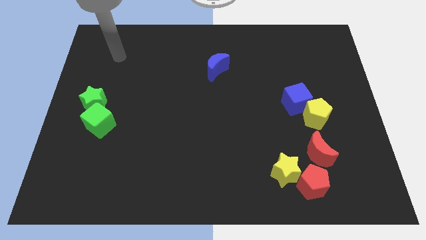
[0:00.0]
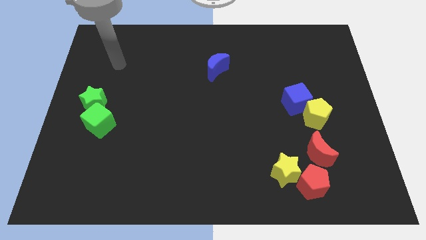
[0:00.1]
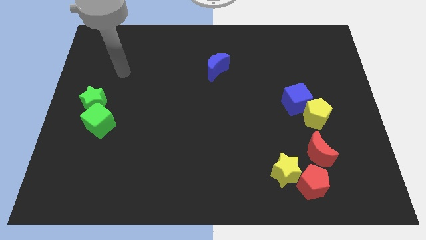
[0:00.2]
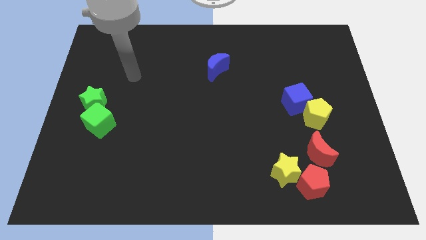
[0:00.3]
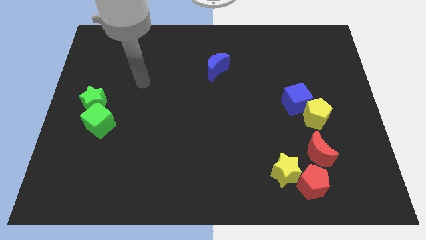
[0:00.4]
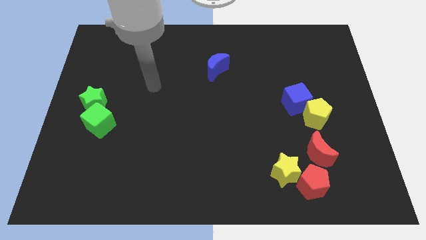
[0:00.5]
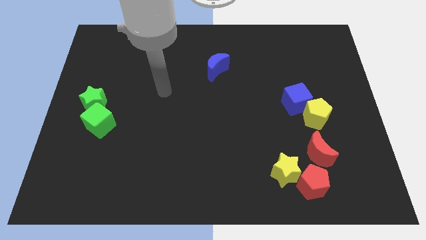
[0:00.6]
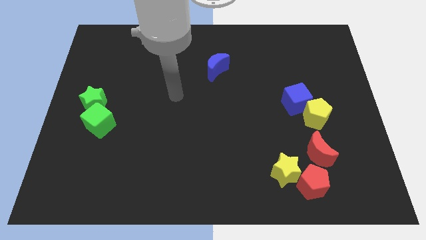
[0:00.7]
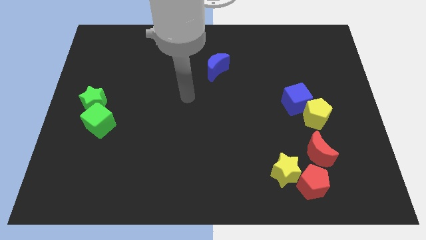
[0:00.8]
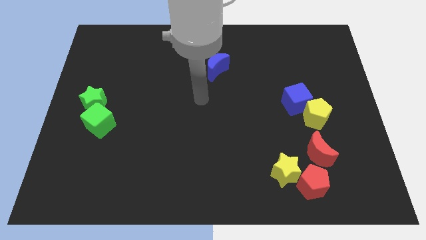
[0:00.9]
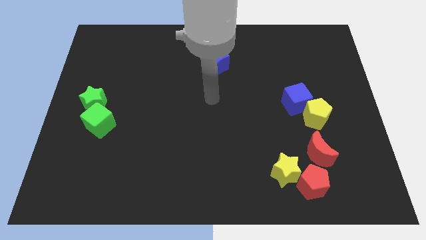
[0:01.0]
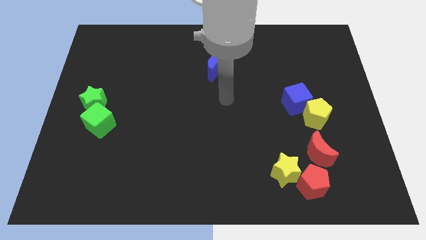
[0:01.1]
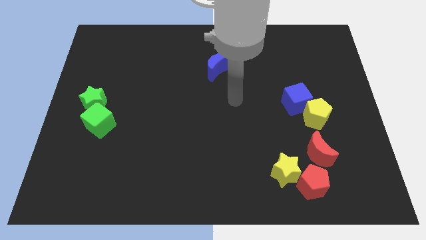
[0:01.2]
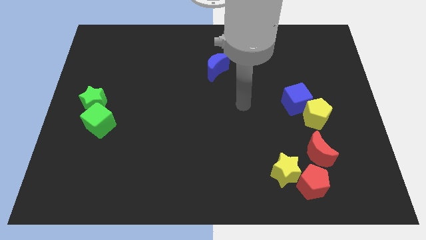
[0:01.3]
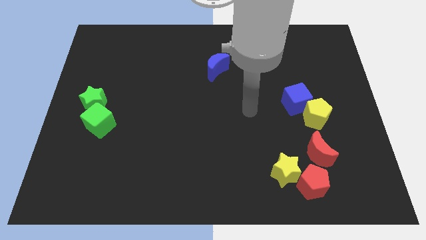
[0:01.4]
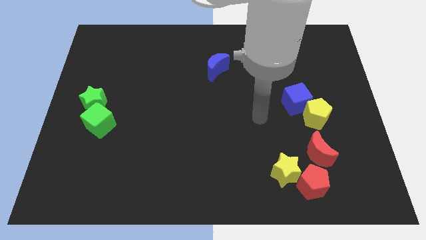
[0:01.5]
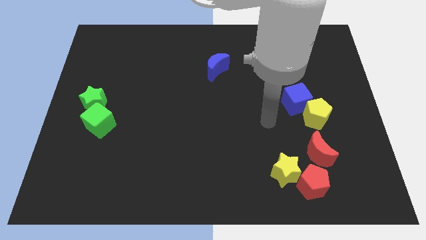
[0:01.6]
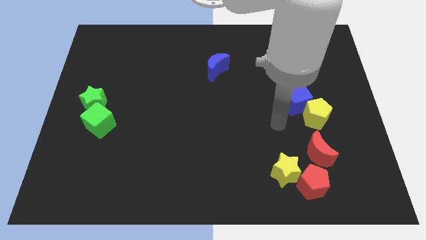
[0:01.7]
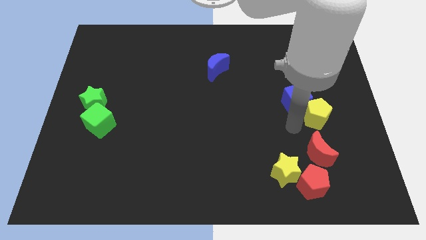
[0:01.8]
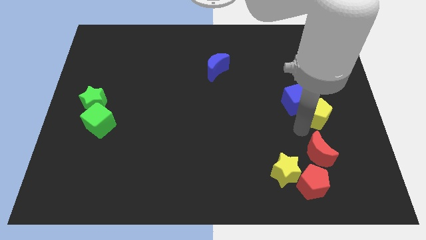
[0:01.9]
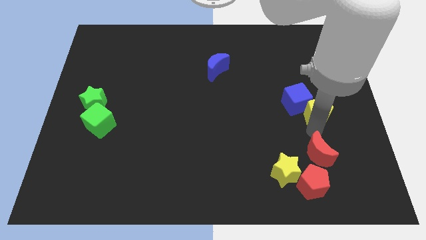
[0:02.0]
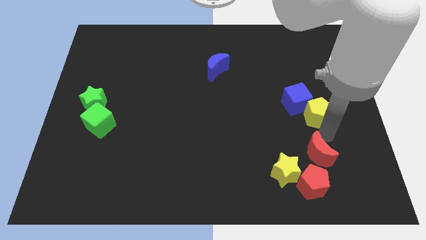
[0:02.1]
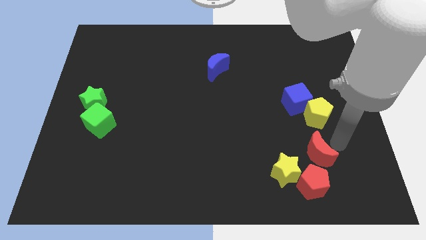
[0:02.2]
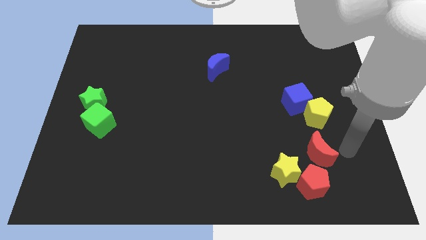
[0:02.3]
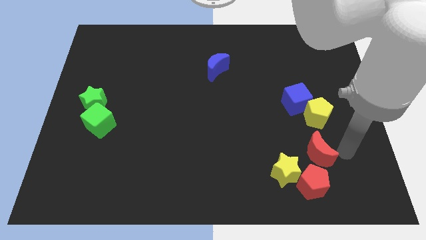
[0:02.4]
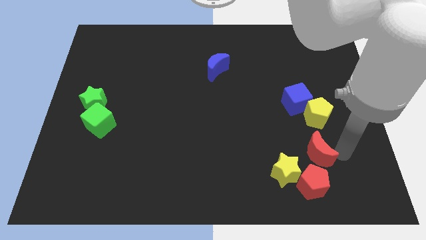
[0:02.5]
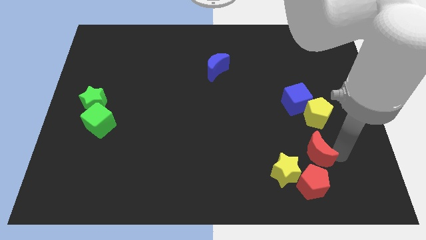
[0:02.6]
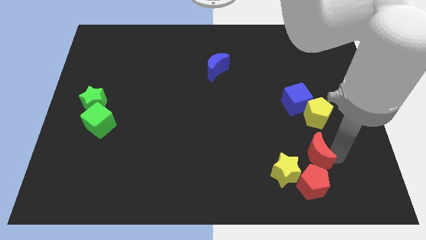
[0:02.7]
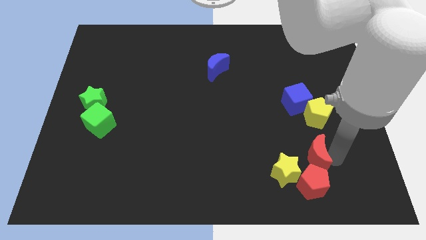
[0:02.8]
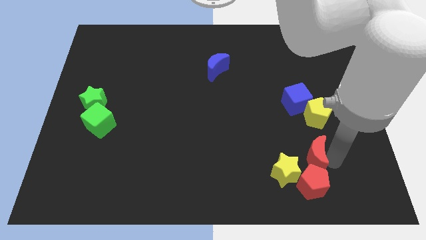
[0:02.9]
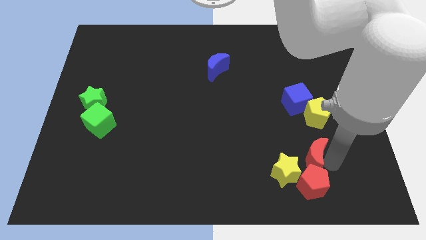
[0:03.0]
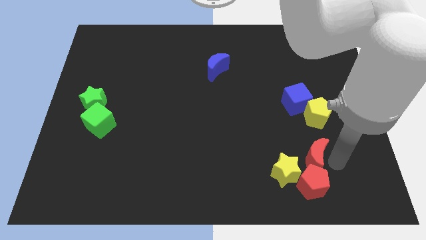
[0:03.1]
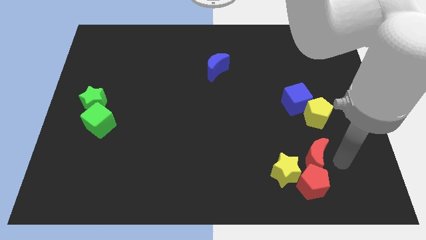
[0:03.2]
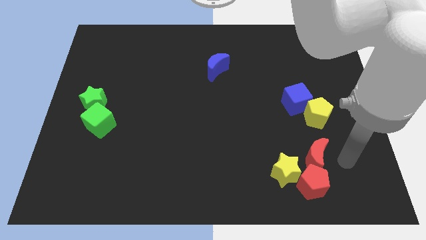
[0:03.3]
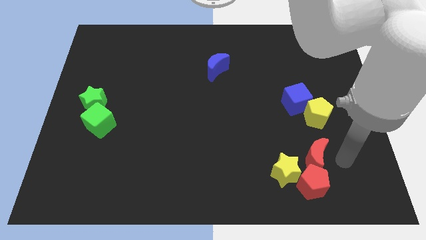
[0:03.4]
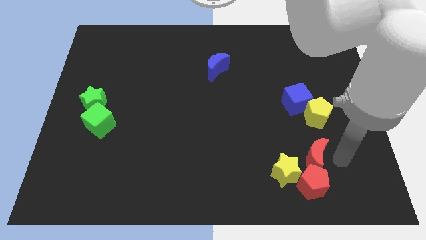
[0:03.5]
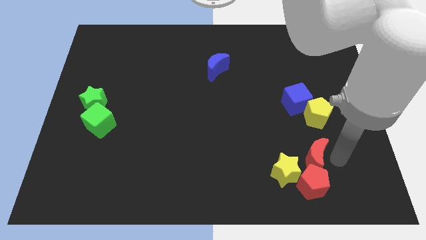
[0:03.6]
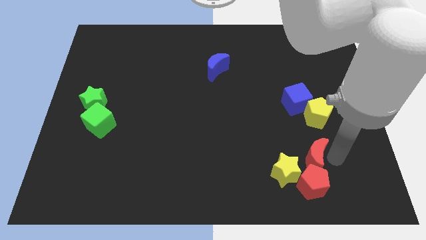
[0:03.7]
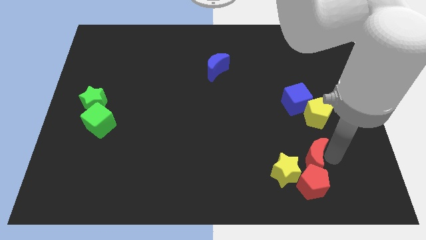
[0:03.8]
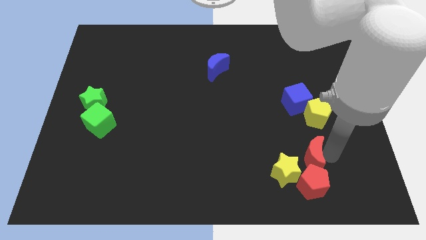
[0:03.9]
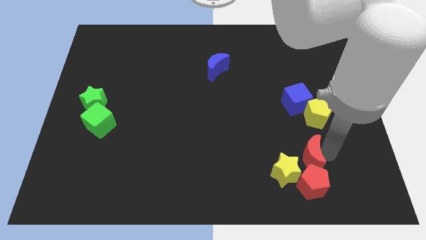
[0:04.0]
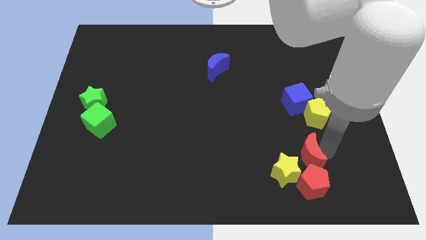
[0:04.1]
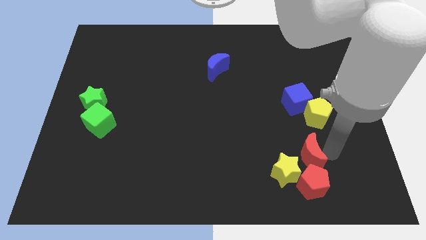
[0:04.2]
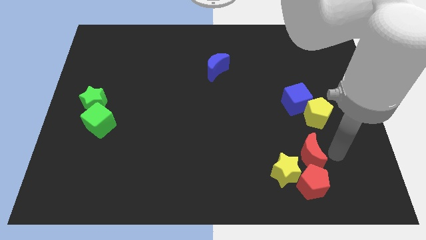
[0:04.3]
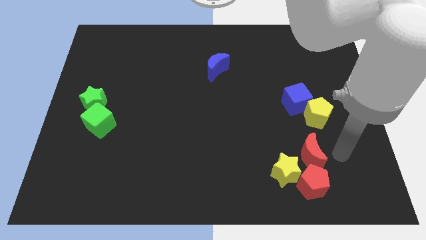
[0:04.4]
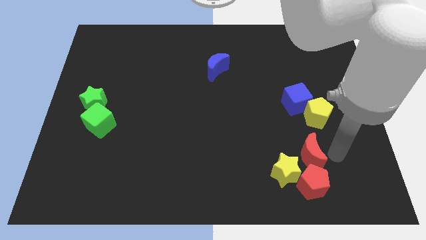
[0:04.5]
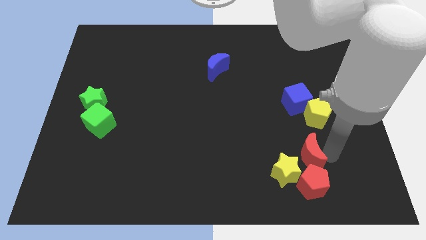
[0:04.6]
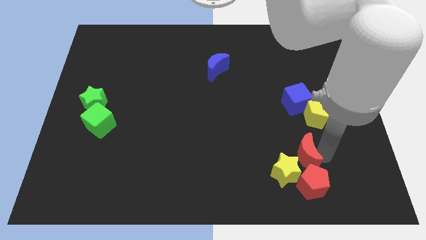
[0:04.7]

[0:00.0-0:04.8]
put the red moon to the top left side of the red pentagon

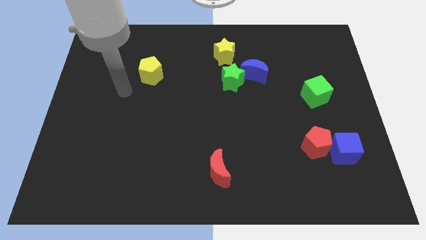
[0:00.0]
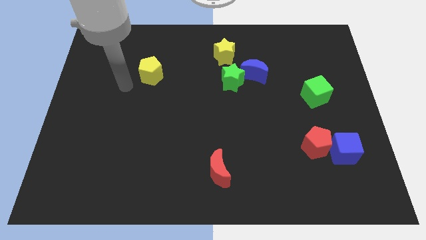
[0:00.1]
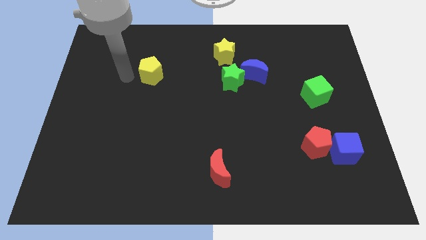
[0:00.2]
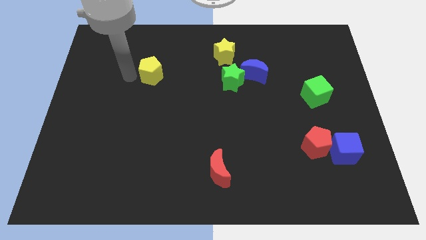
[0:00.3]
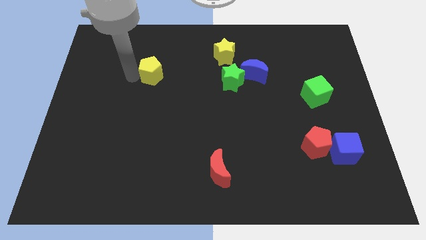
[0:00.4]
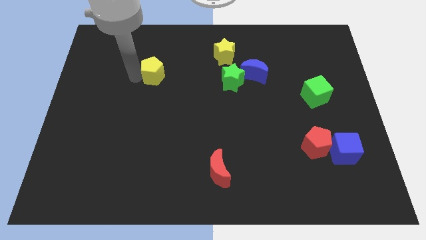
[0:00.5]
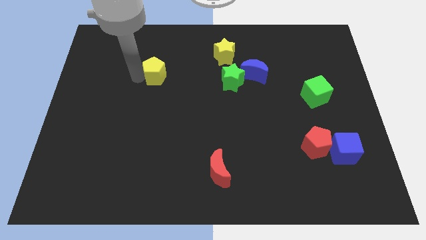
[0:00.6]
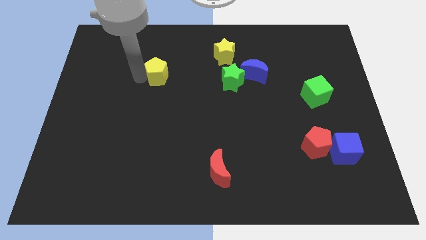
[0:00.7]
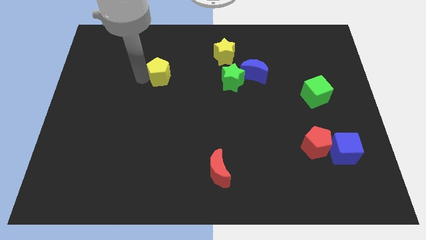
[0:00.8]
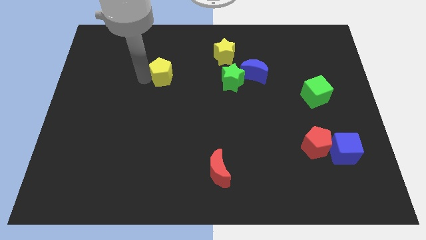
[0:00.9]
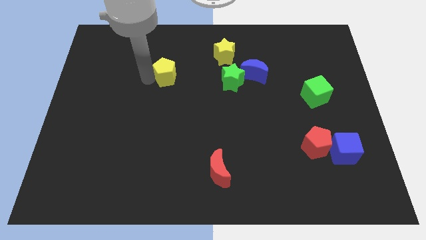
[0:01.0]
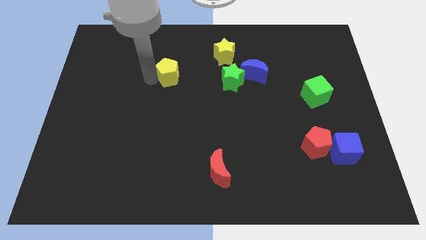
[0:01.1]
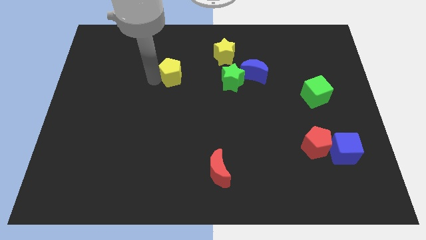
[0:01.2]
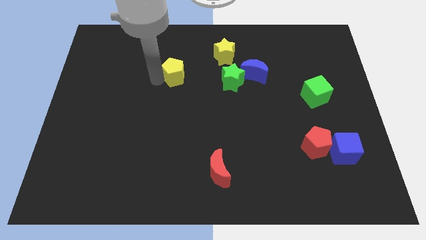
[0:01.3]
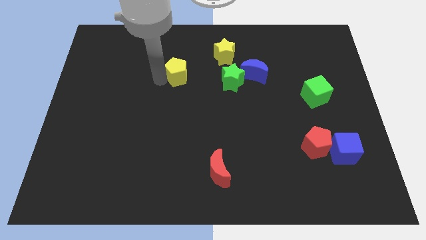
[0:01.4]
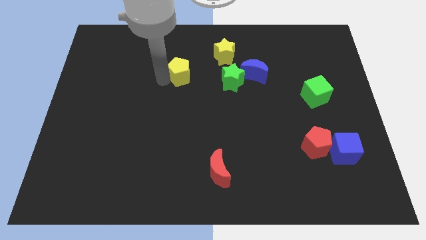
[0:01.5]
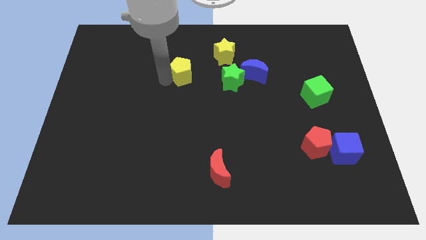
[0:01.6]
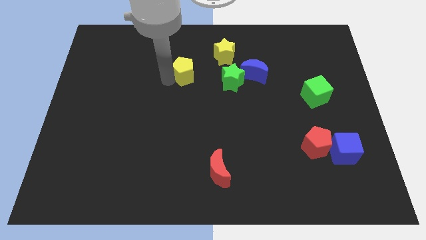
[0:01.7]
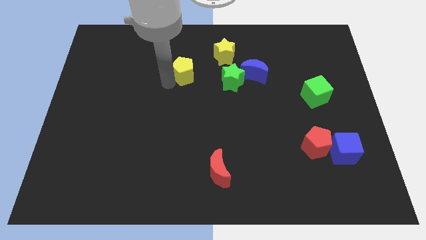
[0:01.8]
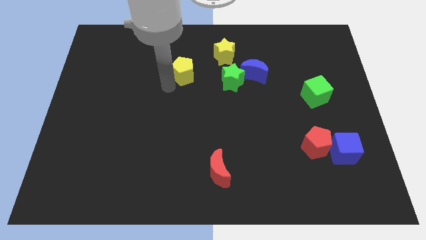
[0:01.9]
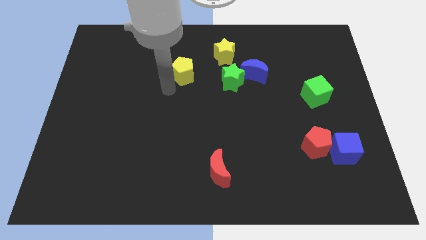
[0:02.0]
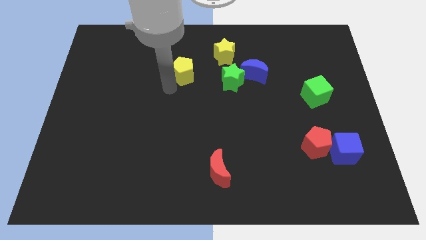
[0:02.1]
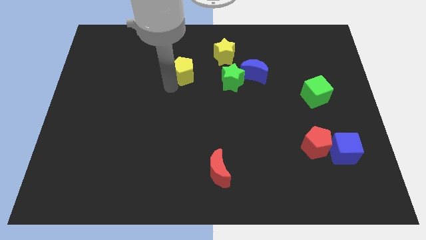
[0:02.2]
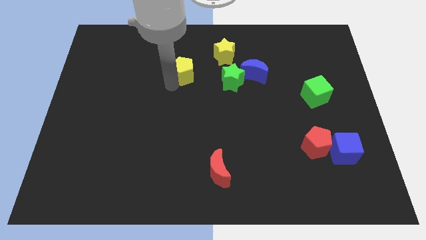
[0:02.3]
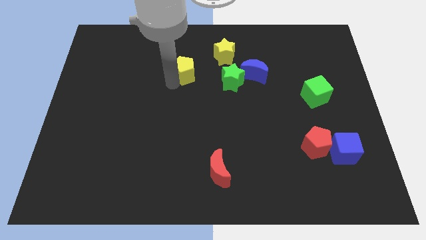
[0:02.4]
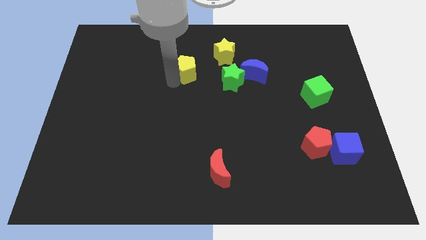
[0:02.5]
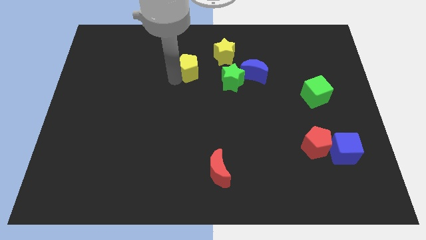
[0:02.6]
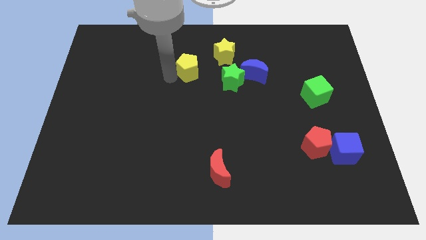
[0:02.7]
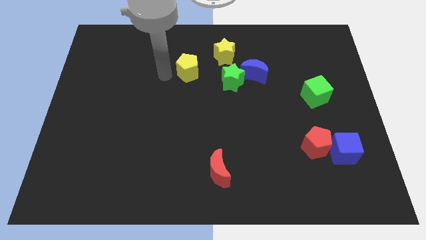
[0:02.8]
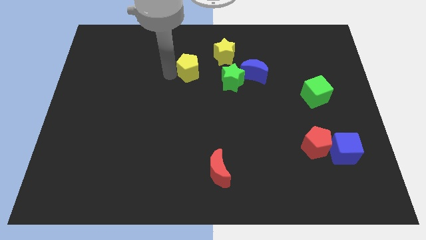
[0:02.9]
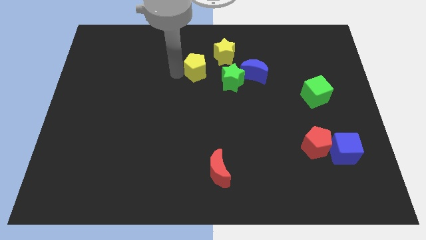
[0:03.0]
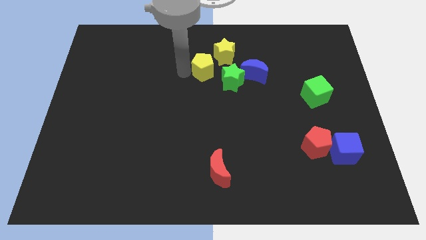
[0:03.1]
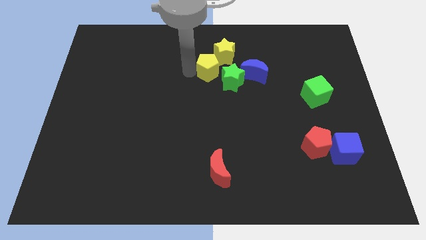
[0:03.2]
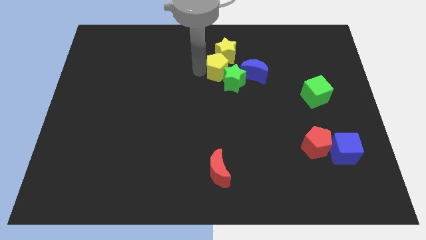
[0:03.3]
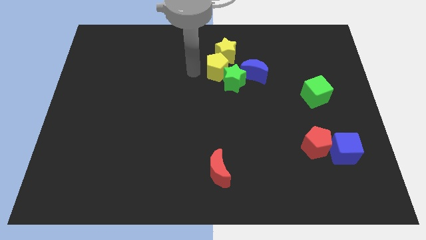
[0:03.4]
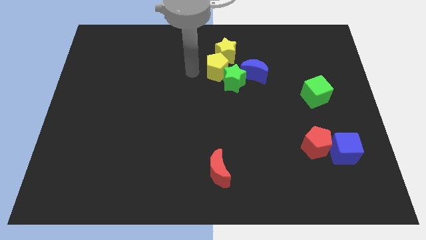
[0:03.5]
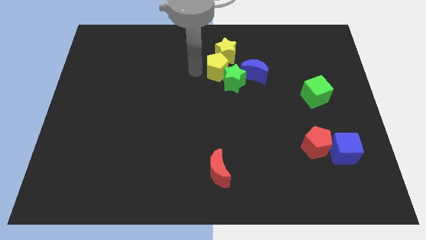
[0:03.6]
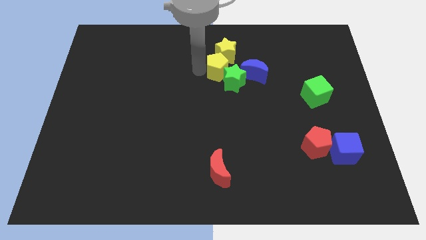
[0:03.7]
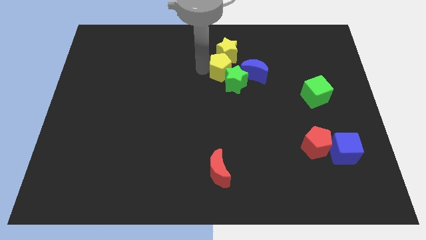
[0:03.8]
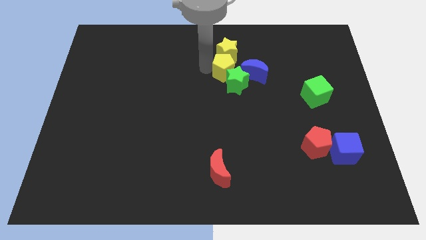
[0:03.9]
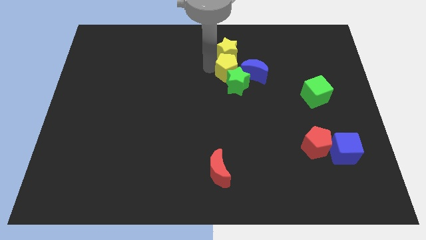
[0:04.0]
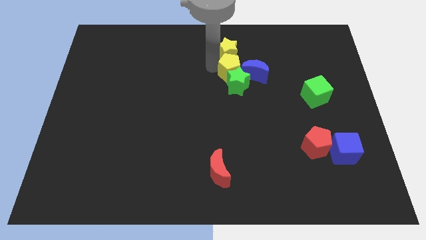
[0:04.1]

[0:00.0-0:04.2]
move the yellow pentagon to the top right of the green star
